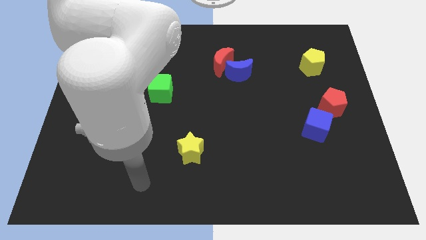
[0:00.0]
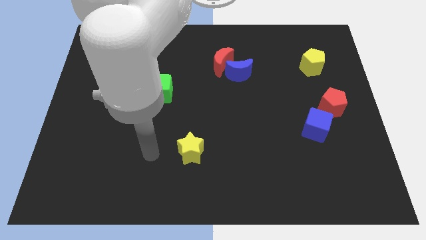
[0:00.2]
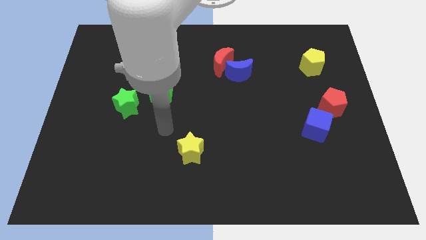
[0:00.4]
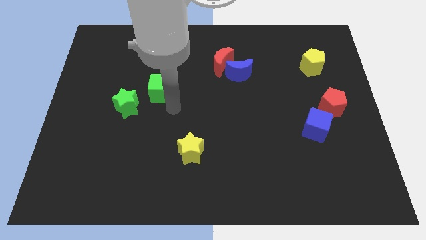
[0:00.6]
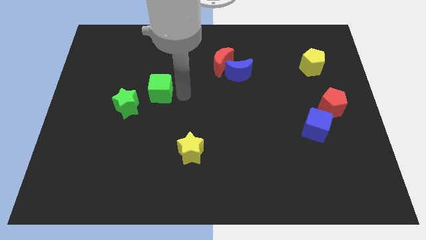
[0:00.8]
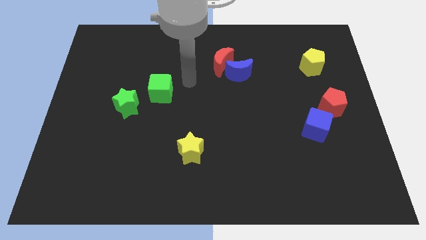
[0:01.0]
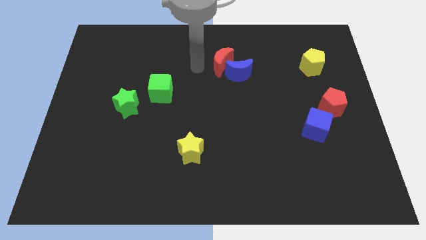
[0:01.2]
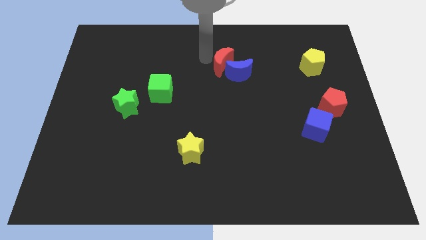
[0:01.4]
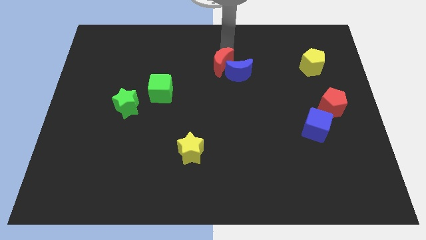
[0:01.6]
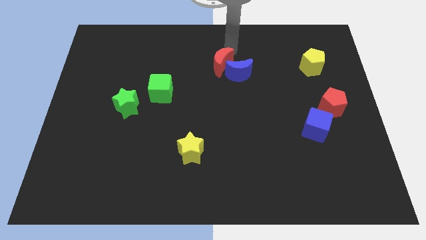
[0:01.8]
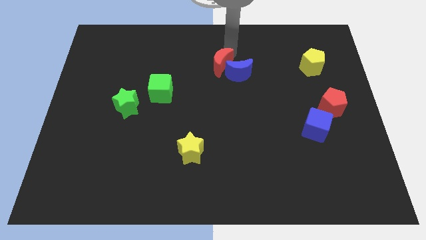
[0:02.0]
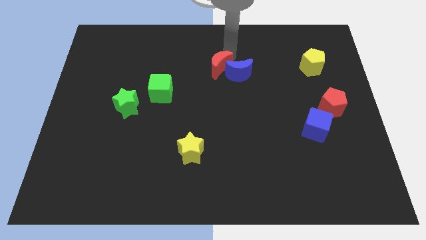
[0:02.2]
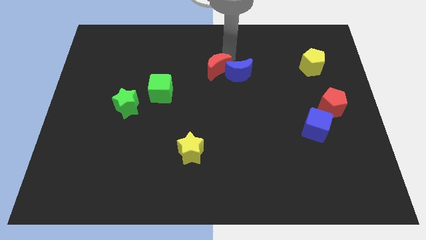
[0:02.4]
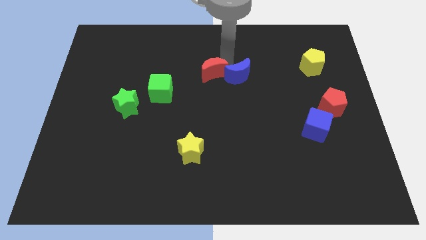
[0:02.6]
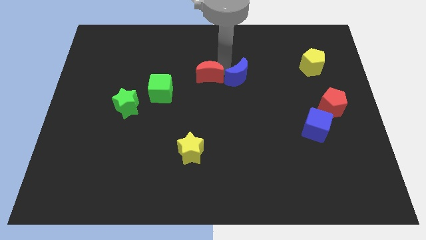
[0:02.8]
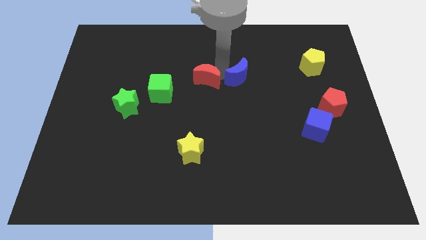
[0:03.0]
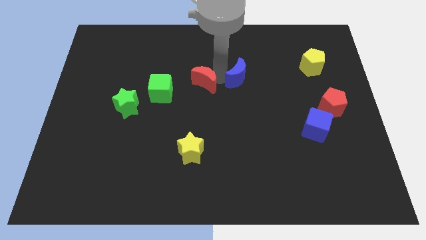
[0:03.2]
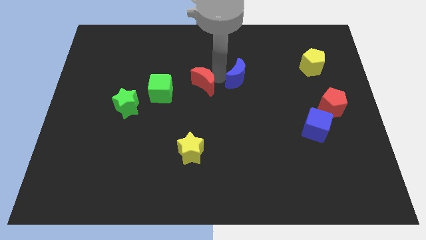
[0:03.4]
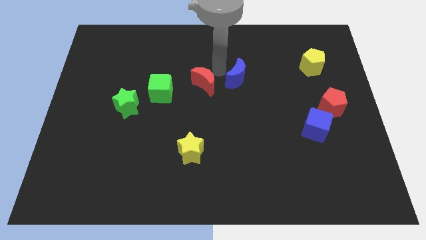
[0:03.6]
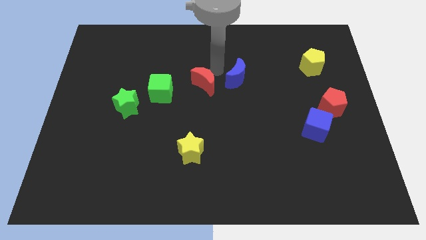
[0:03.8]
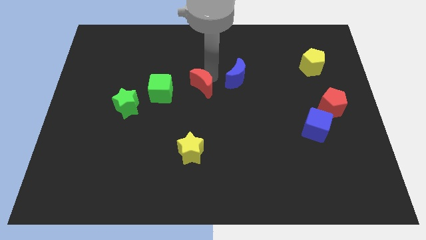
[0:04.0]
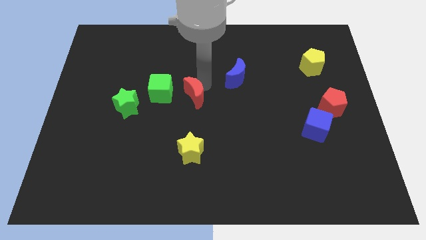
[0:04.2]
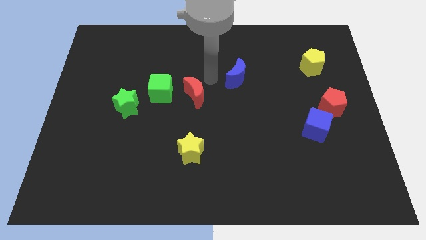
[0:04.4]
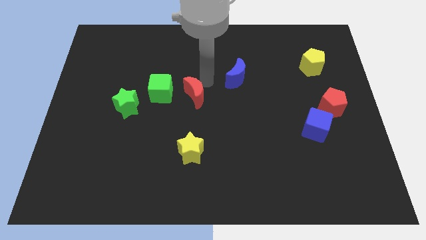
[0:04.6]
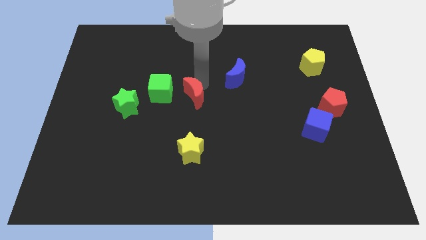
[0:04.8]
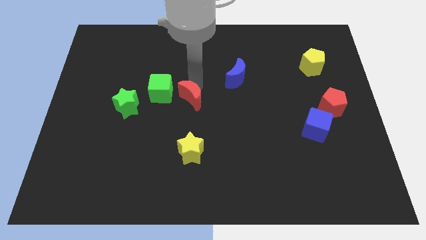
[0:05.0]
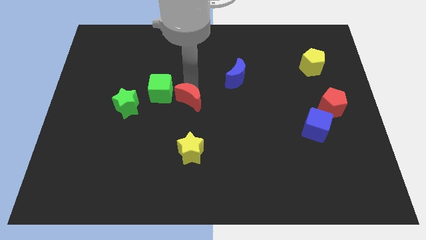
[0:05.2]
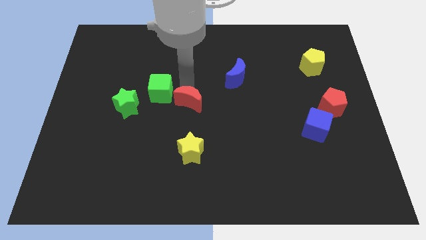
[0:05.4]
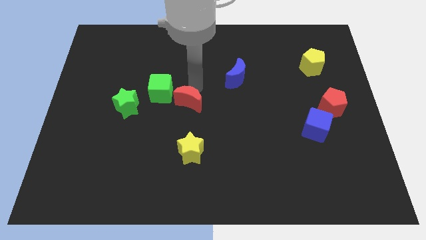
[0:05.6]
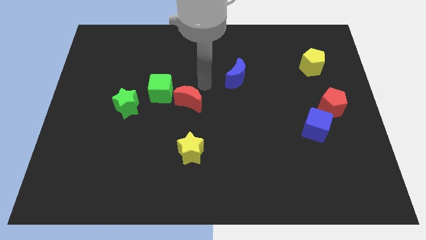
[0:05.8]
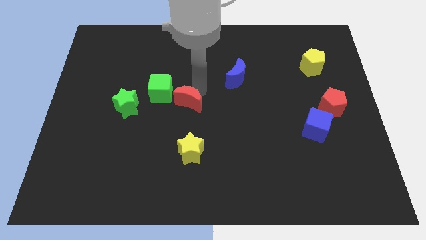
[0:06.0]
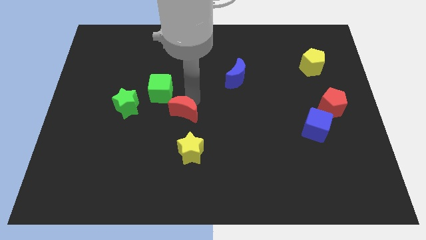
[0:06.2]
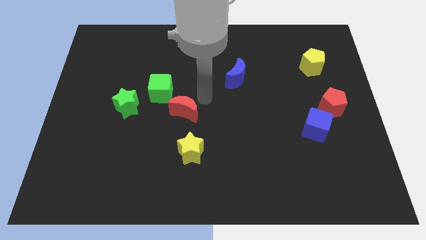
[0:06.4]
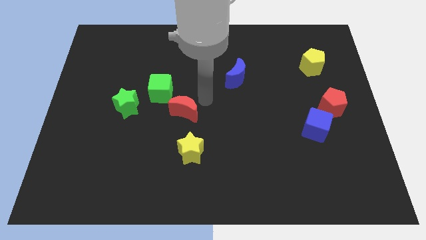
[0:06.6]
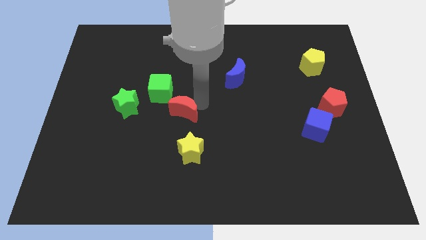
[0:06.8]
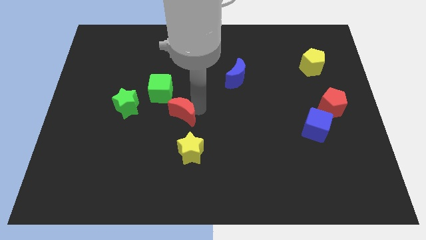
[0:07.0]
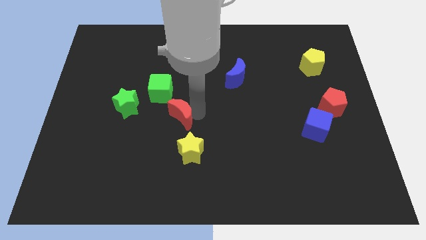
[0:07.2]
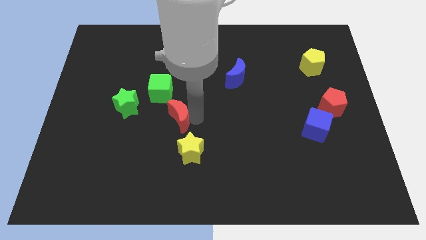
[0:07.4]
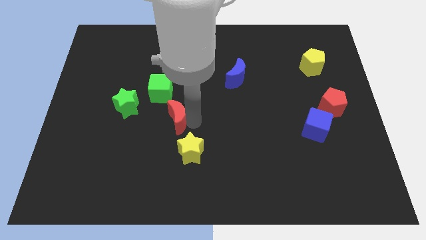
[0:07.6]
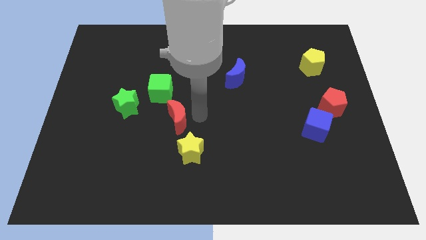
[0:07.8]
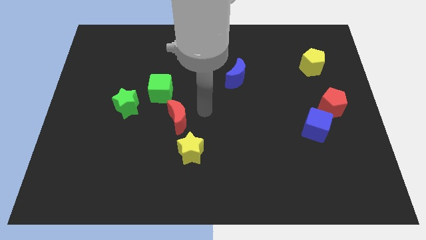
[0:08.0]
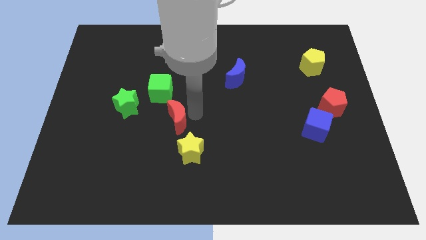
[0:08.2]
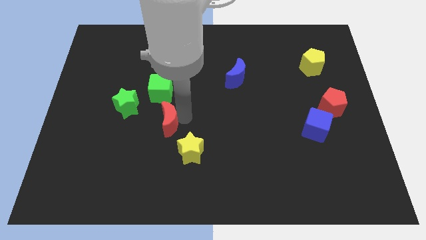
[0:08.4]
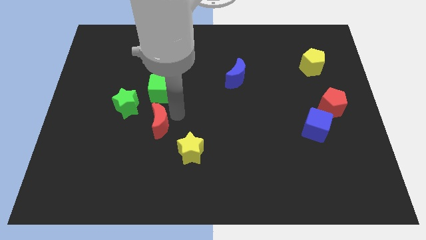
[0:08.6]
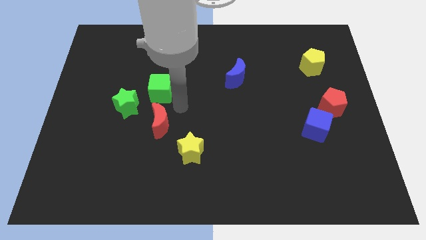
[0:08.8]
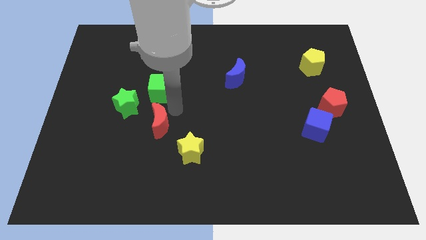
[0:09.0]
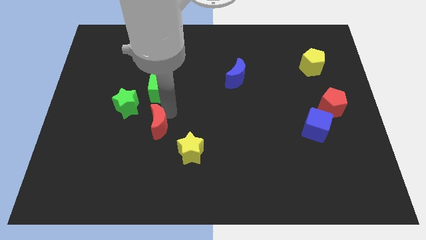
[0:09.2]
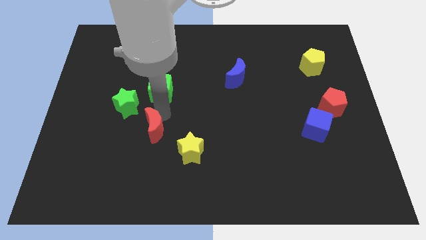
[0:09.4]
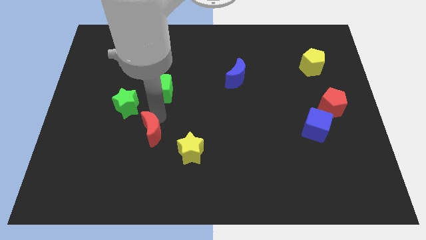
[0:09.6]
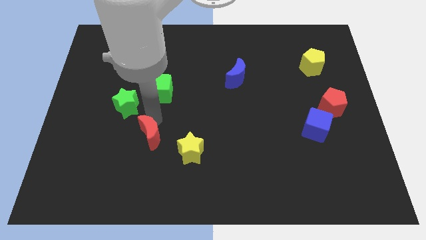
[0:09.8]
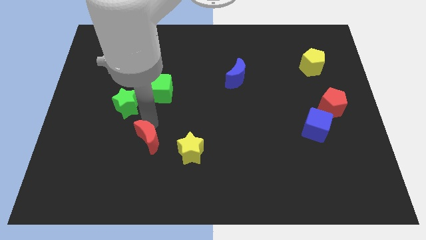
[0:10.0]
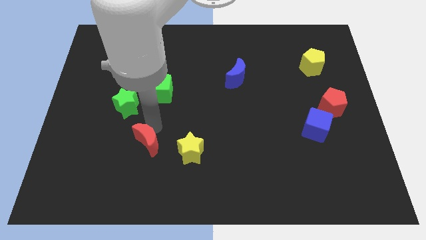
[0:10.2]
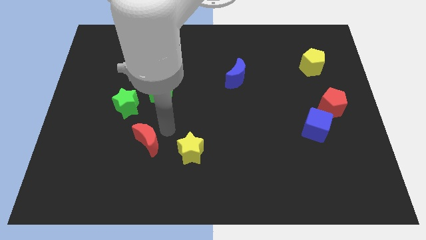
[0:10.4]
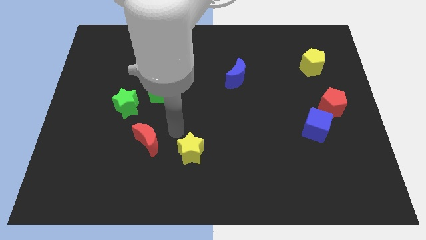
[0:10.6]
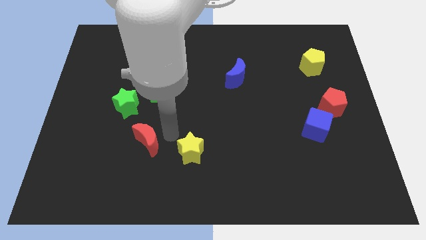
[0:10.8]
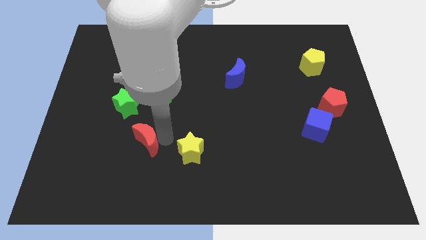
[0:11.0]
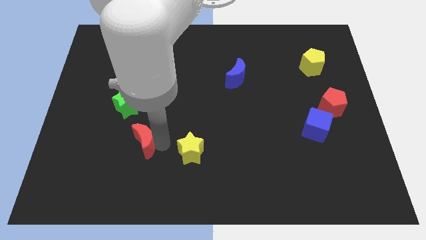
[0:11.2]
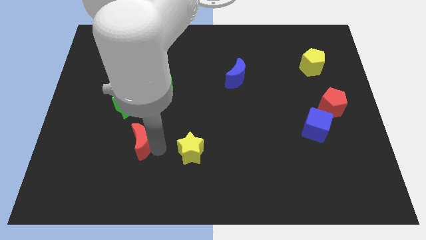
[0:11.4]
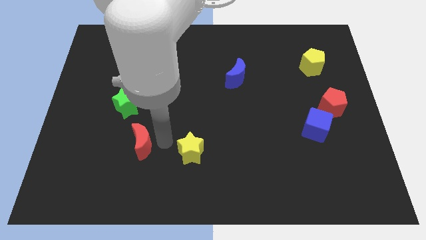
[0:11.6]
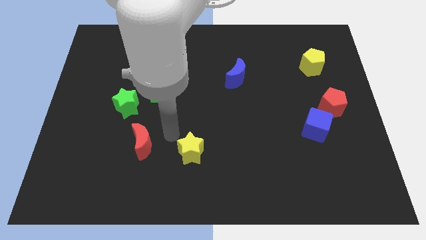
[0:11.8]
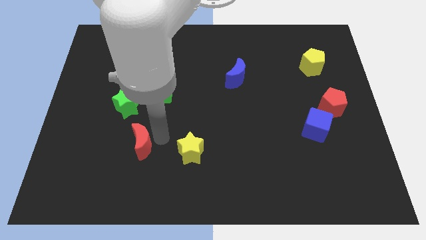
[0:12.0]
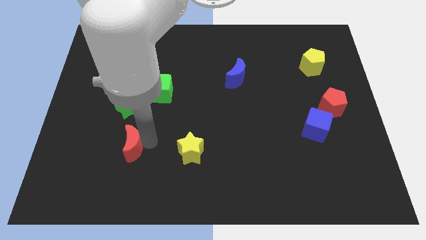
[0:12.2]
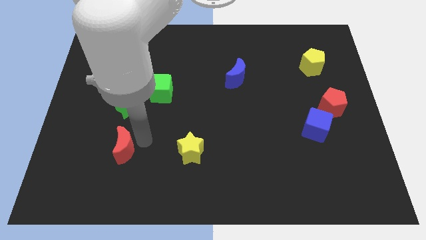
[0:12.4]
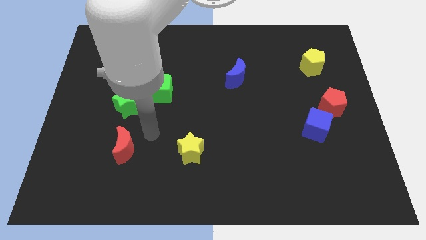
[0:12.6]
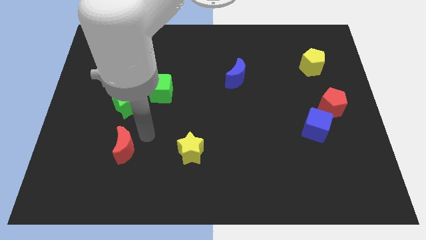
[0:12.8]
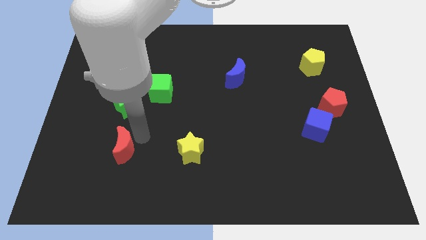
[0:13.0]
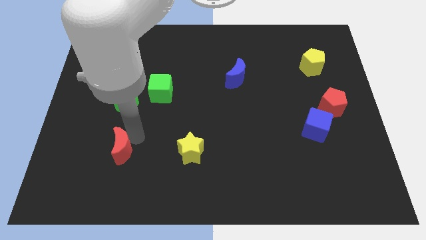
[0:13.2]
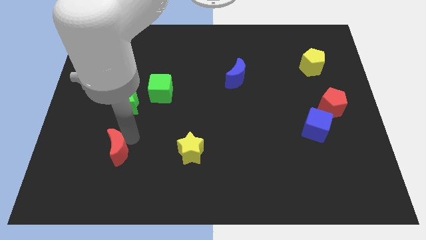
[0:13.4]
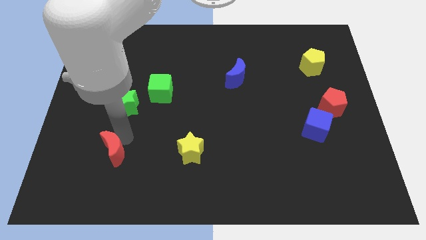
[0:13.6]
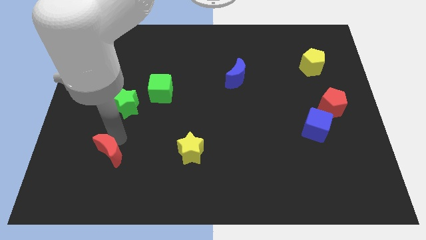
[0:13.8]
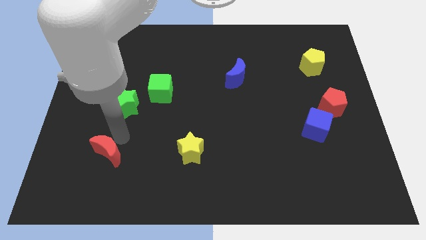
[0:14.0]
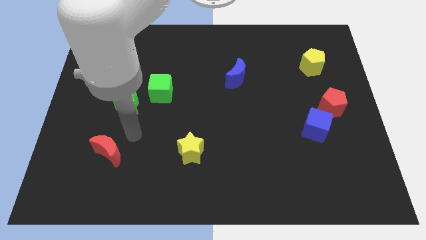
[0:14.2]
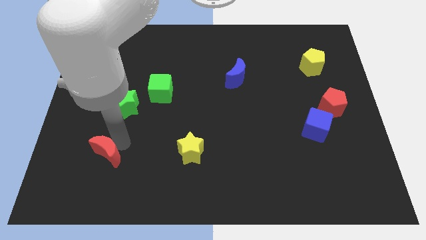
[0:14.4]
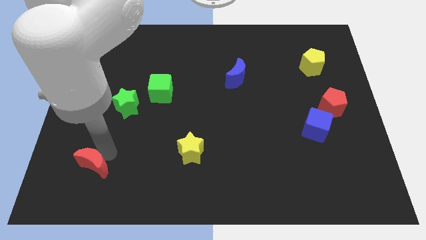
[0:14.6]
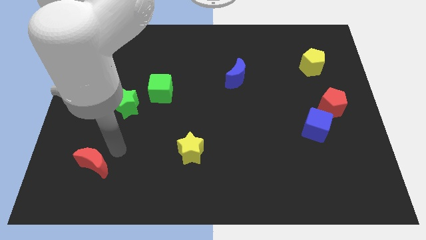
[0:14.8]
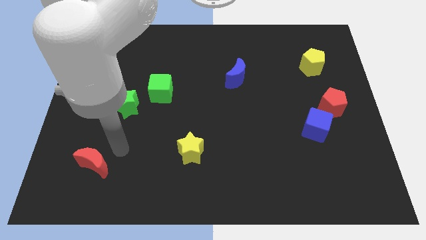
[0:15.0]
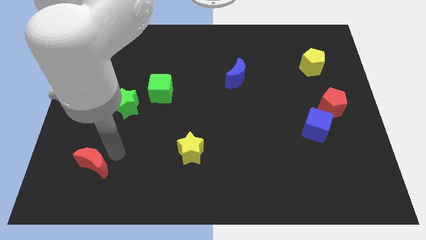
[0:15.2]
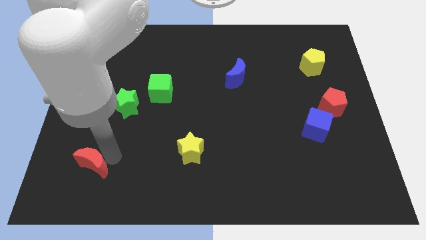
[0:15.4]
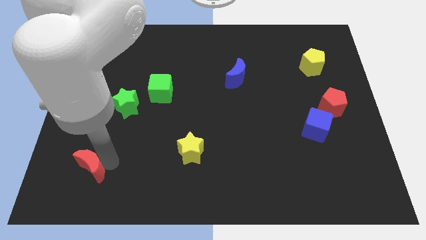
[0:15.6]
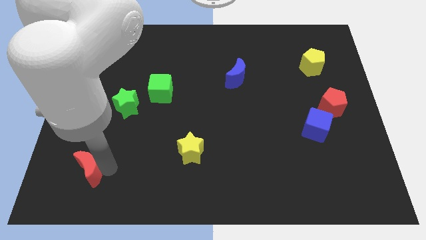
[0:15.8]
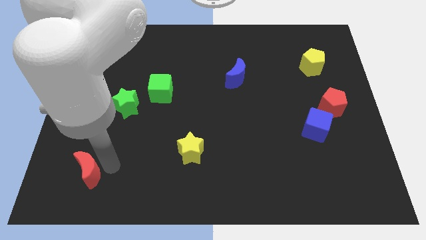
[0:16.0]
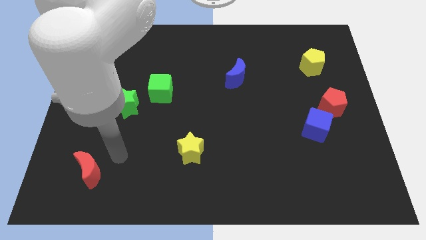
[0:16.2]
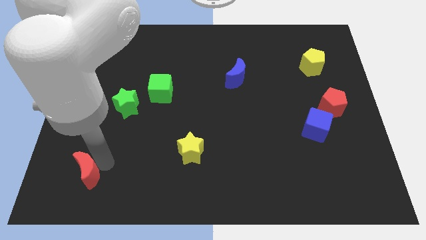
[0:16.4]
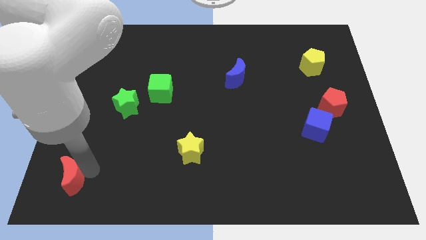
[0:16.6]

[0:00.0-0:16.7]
put the red moon to the bottom left of the board
